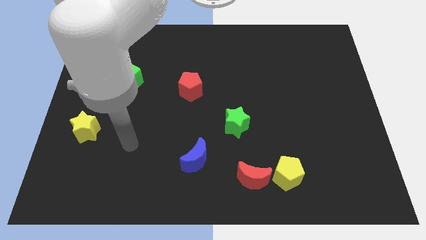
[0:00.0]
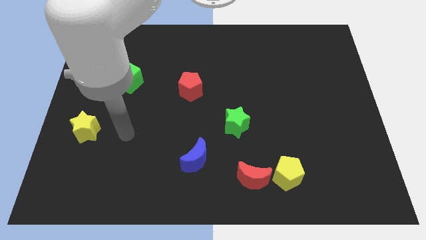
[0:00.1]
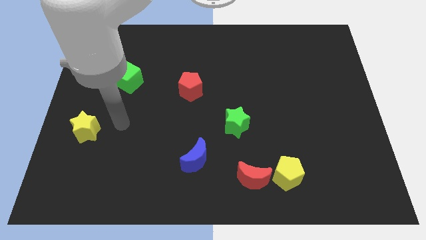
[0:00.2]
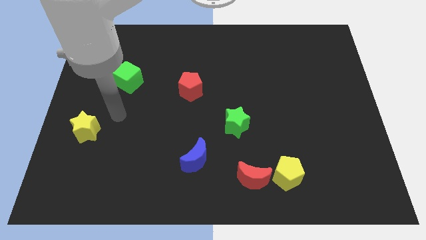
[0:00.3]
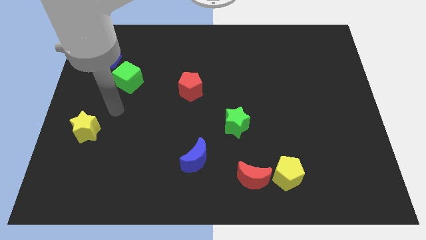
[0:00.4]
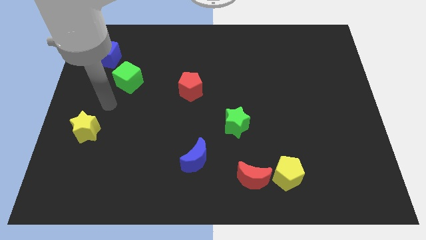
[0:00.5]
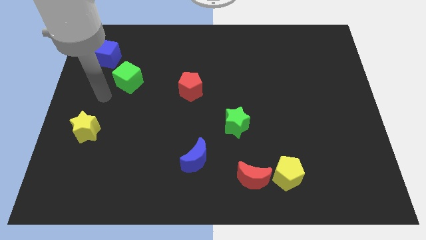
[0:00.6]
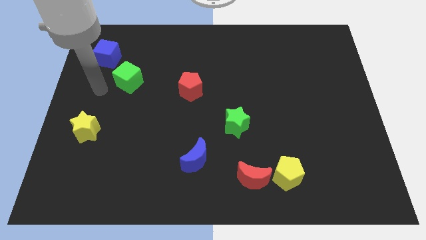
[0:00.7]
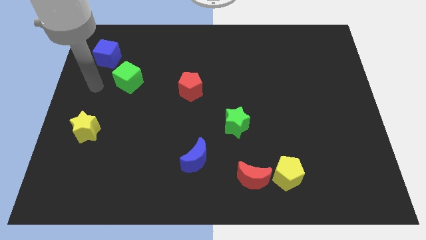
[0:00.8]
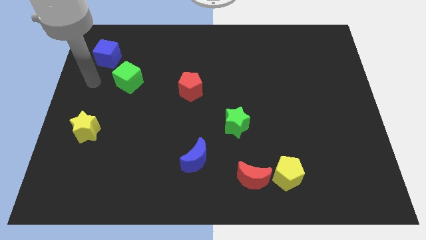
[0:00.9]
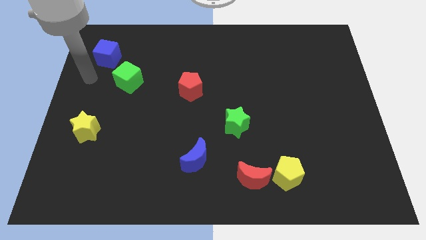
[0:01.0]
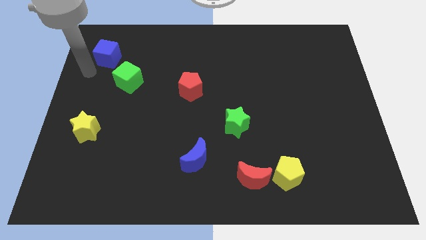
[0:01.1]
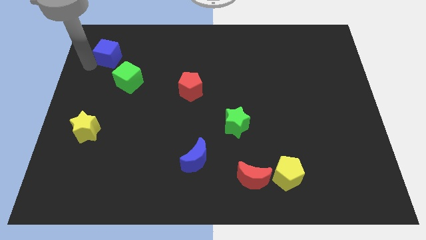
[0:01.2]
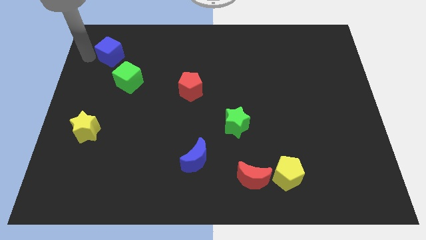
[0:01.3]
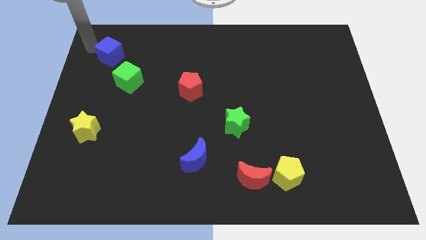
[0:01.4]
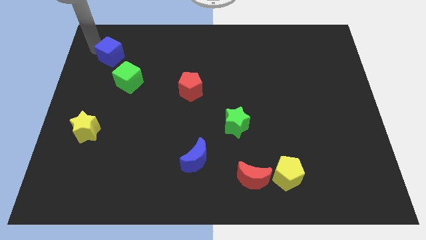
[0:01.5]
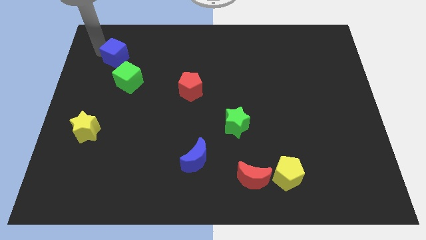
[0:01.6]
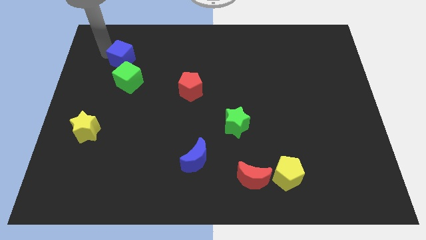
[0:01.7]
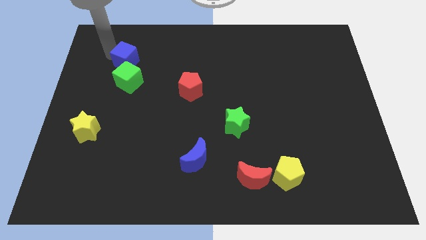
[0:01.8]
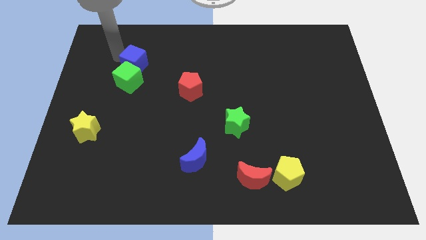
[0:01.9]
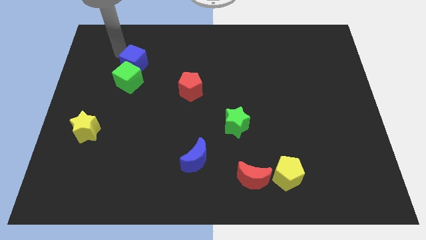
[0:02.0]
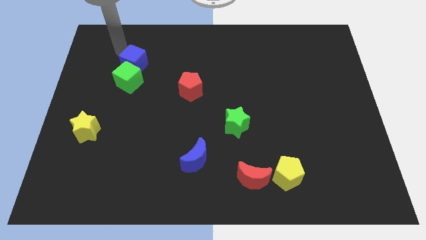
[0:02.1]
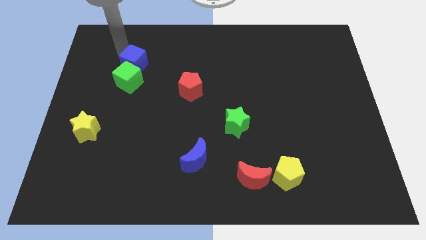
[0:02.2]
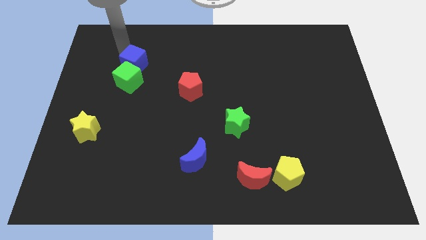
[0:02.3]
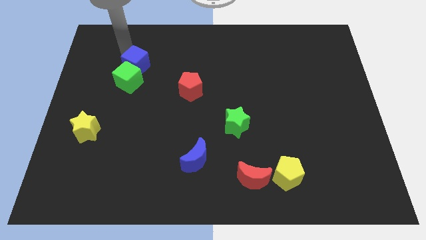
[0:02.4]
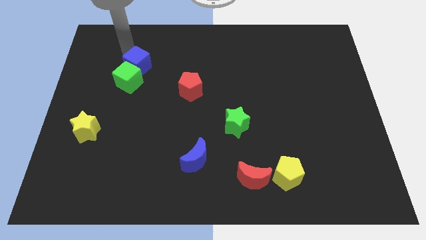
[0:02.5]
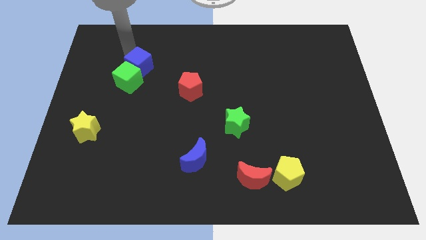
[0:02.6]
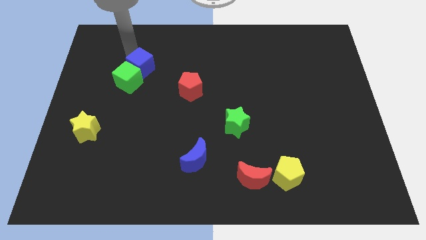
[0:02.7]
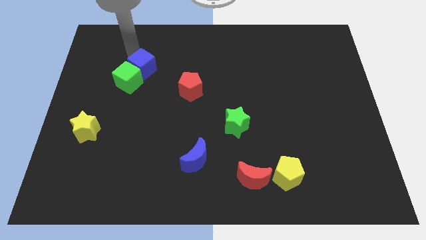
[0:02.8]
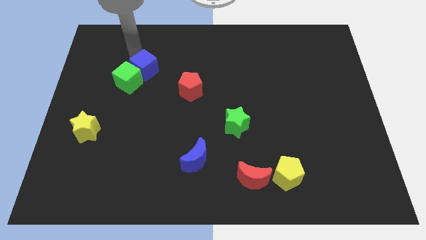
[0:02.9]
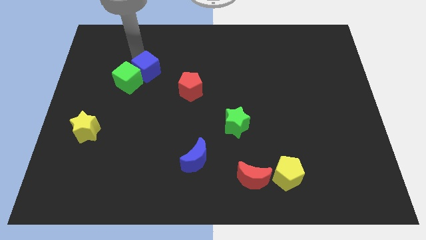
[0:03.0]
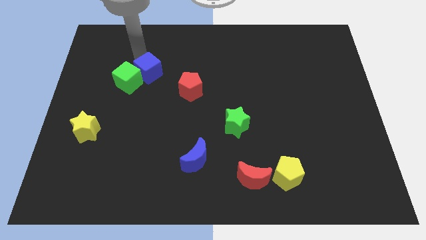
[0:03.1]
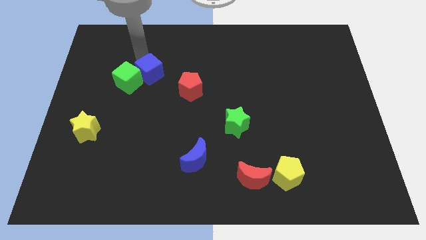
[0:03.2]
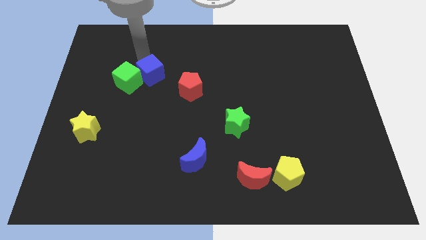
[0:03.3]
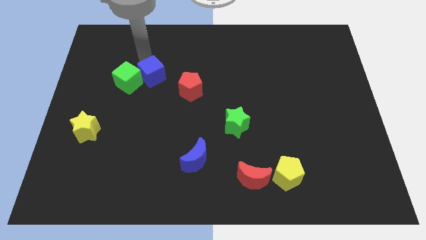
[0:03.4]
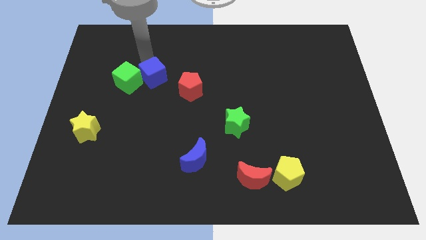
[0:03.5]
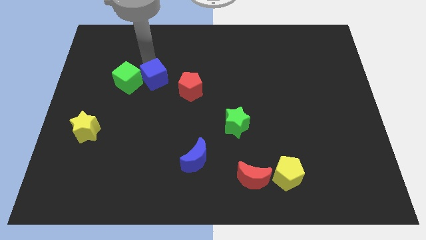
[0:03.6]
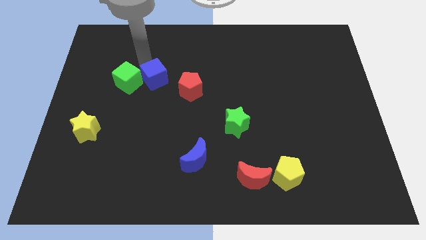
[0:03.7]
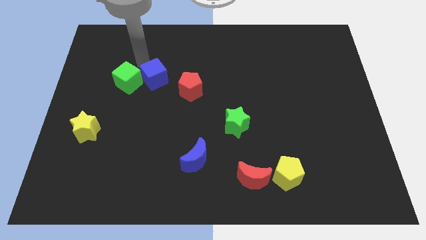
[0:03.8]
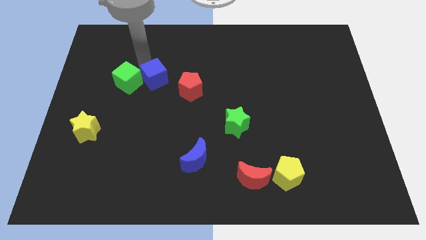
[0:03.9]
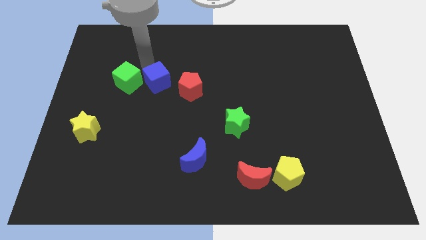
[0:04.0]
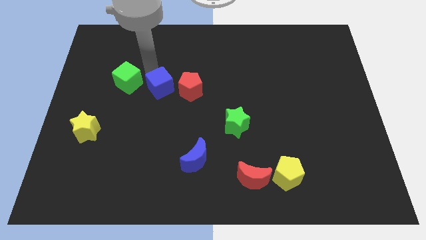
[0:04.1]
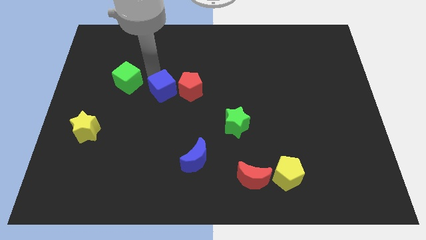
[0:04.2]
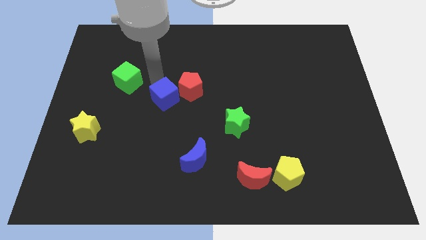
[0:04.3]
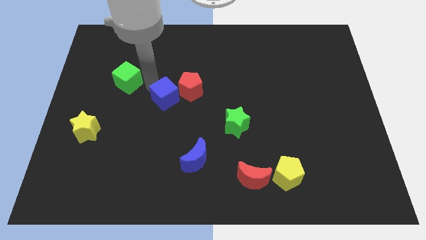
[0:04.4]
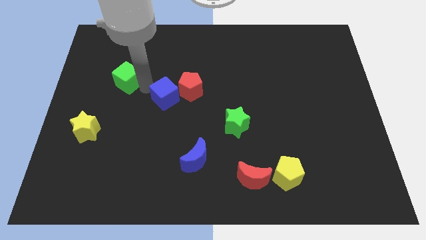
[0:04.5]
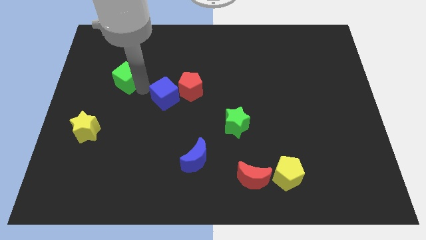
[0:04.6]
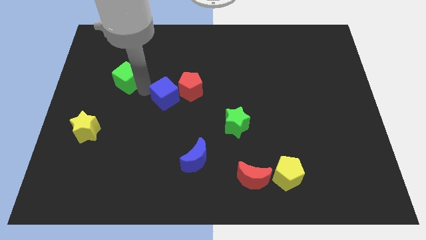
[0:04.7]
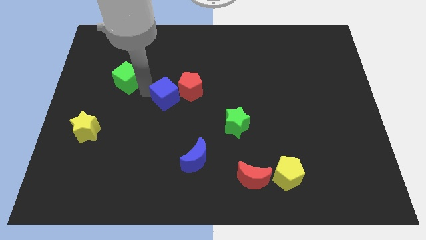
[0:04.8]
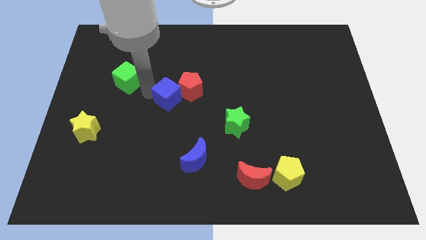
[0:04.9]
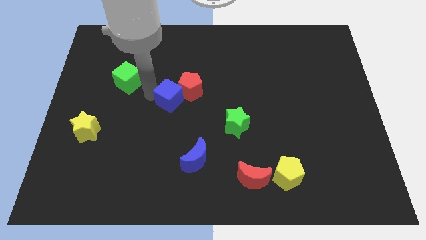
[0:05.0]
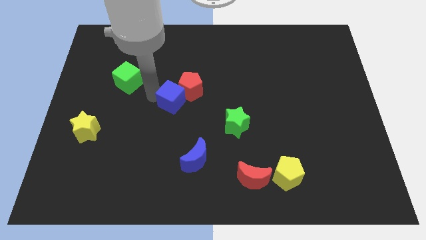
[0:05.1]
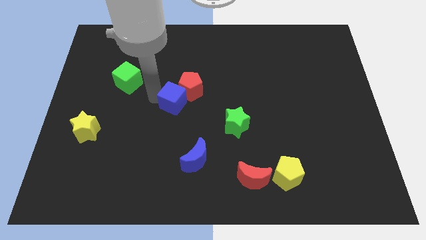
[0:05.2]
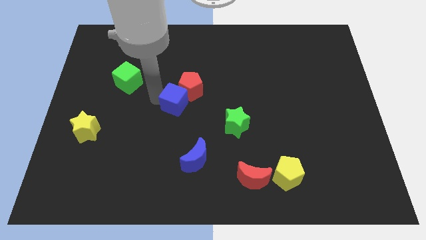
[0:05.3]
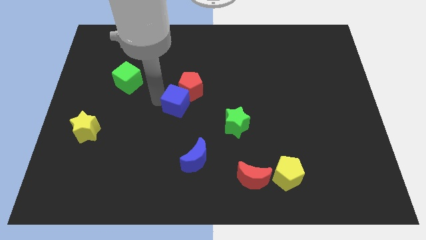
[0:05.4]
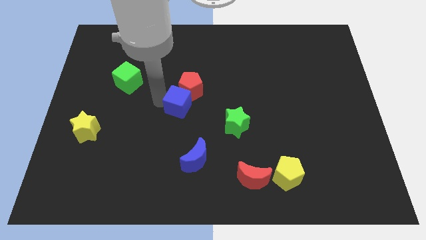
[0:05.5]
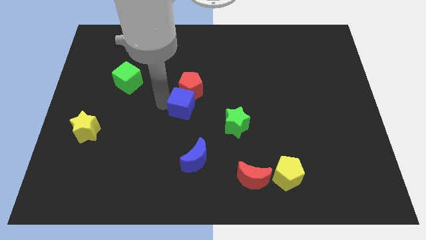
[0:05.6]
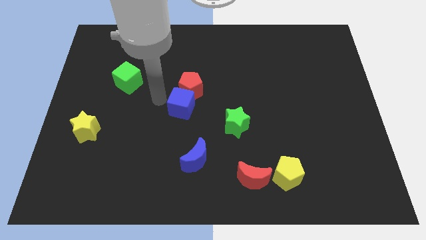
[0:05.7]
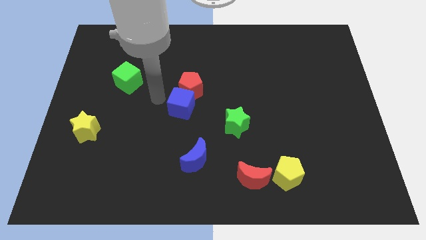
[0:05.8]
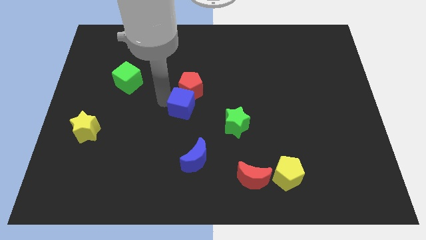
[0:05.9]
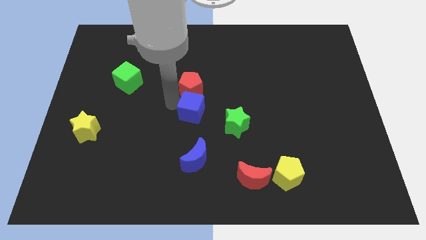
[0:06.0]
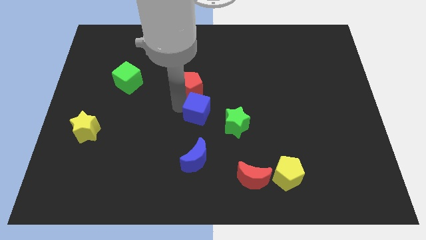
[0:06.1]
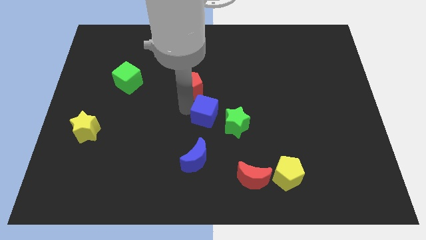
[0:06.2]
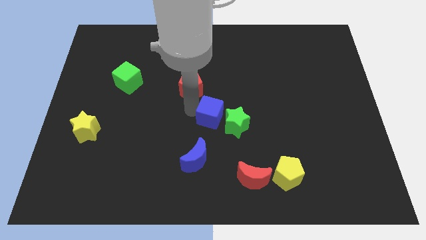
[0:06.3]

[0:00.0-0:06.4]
move the blue cube to the green star

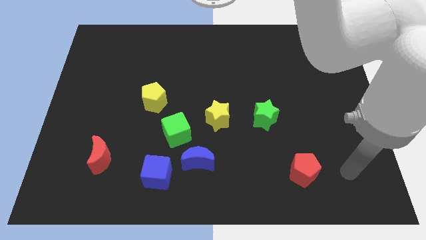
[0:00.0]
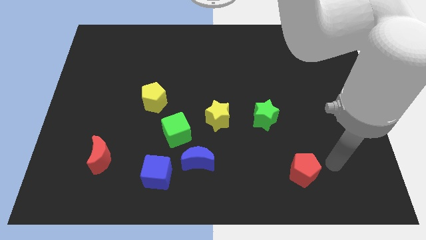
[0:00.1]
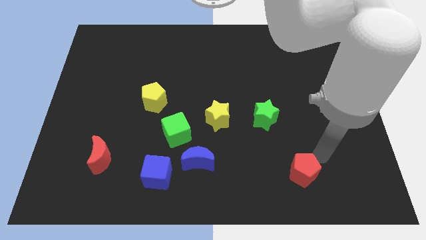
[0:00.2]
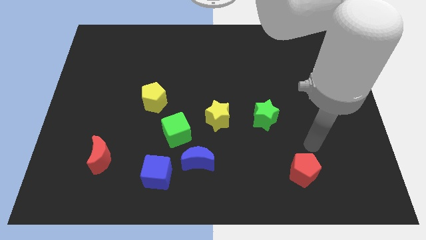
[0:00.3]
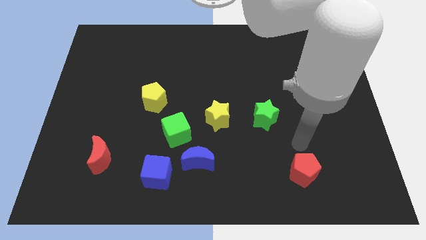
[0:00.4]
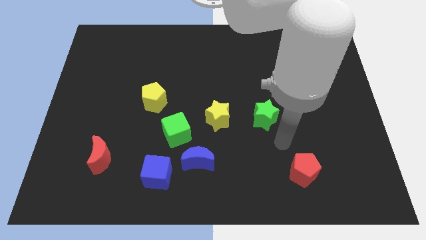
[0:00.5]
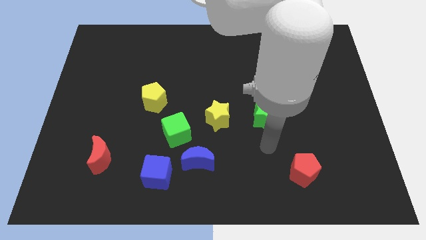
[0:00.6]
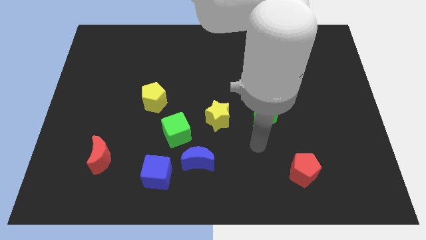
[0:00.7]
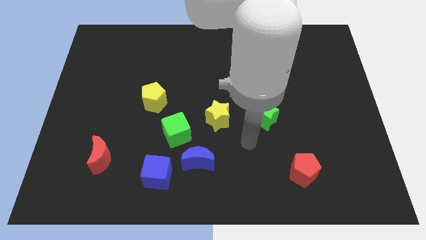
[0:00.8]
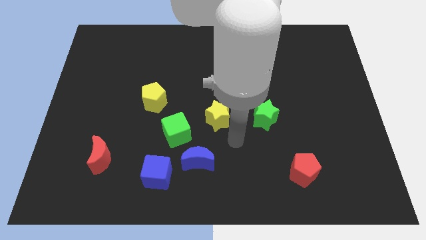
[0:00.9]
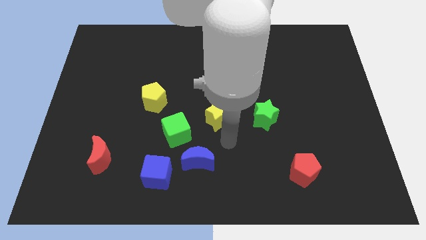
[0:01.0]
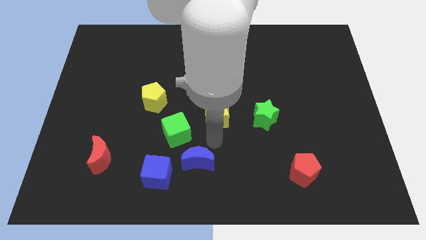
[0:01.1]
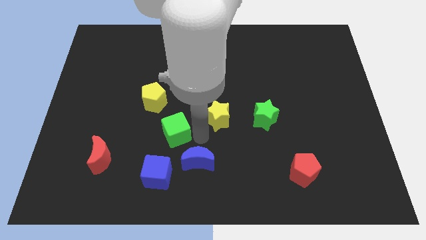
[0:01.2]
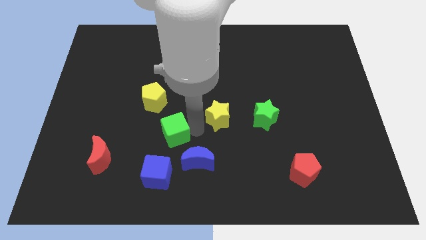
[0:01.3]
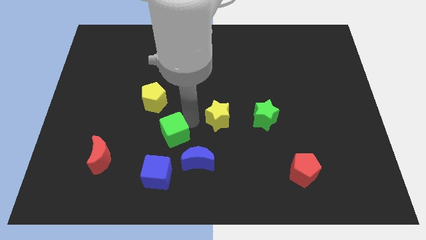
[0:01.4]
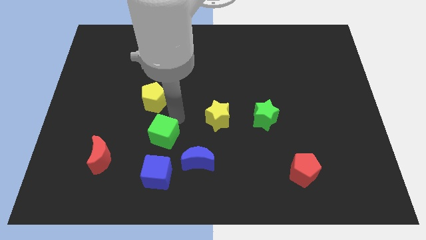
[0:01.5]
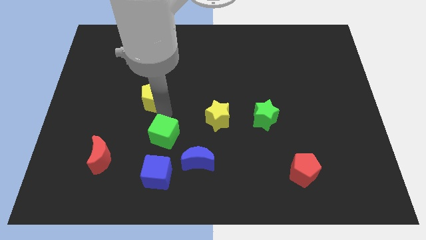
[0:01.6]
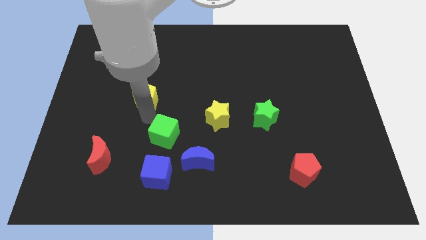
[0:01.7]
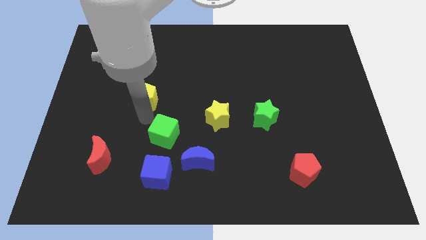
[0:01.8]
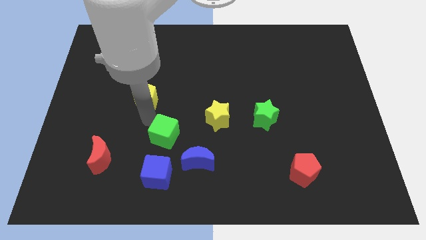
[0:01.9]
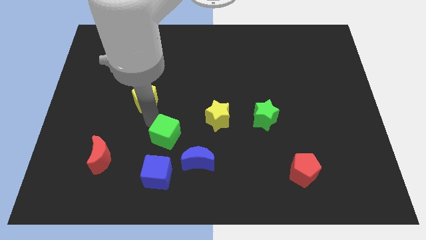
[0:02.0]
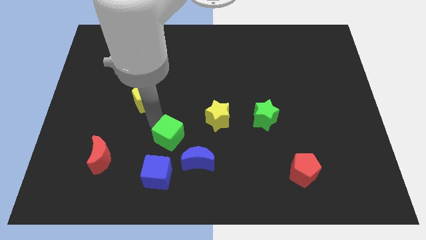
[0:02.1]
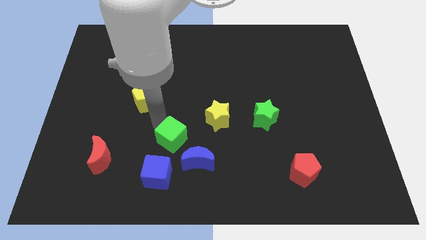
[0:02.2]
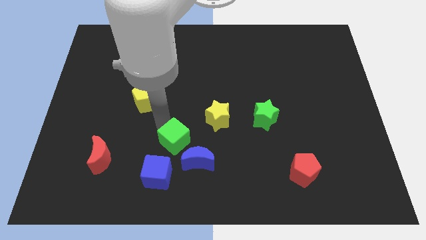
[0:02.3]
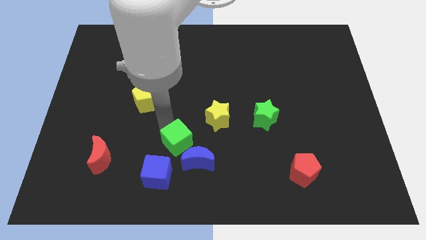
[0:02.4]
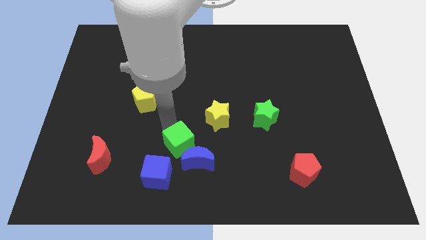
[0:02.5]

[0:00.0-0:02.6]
slide the green cube next to the blue moon
